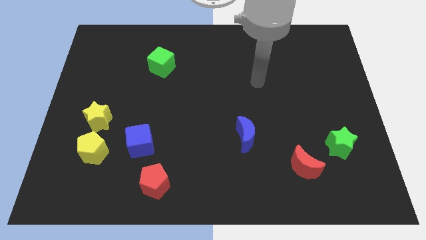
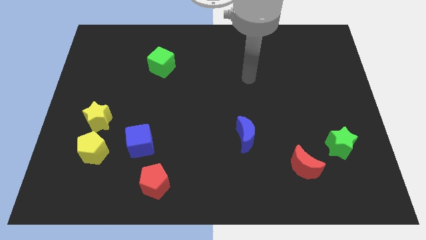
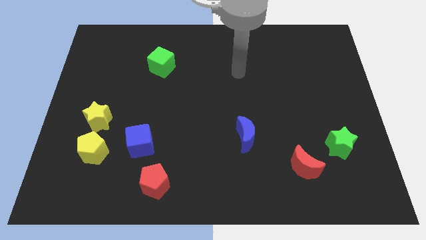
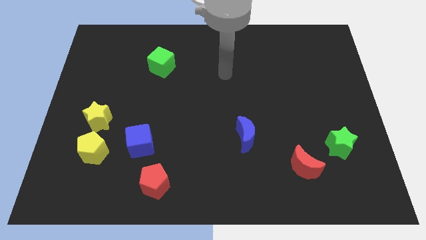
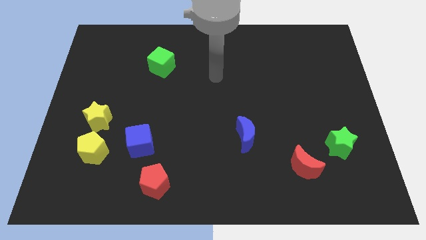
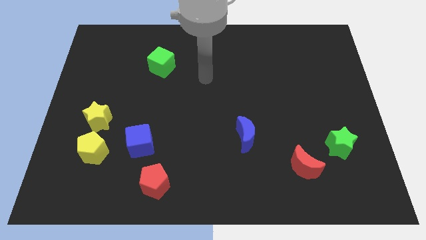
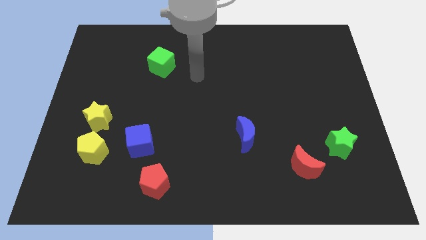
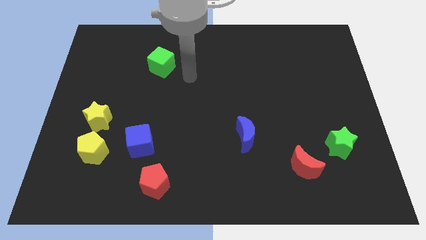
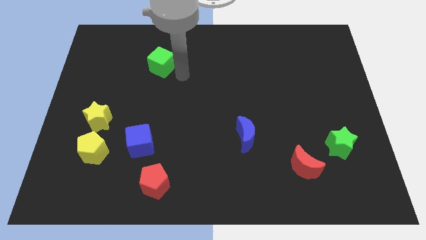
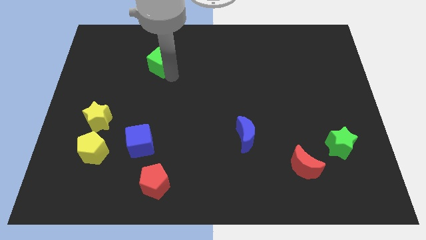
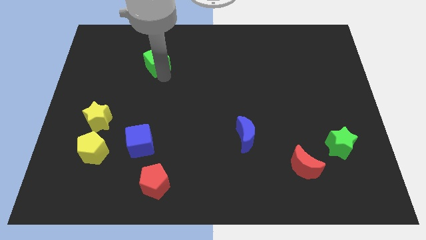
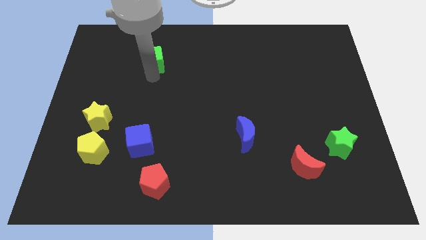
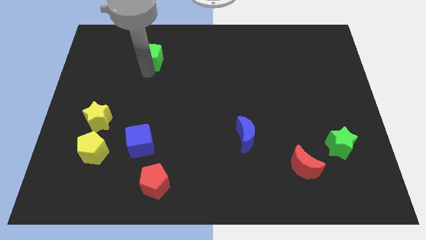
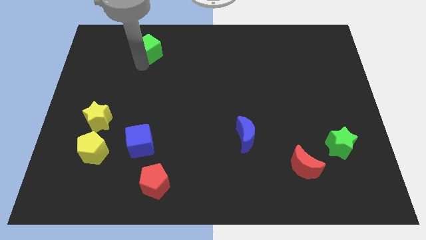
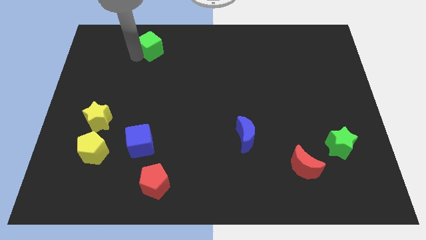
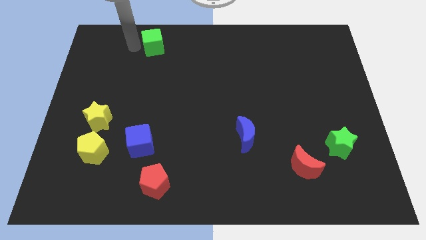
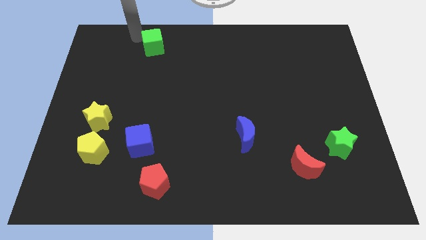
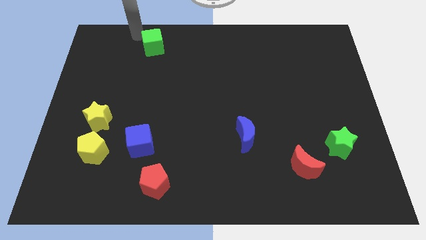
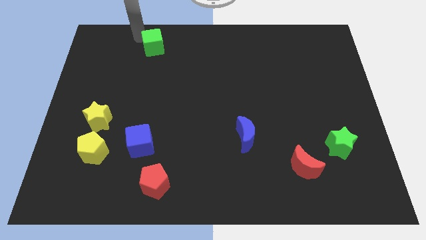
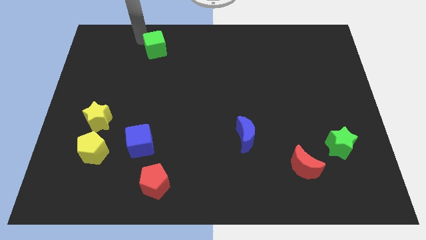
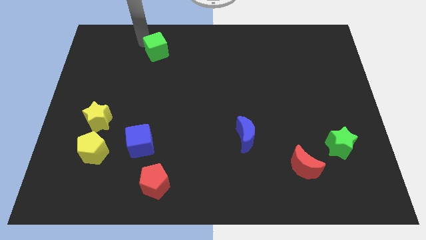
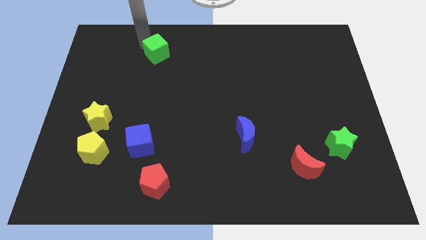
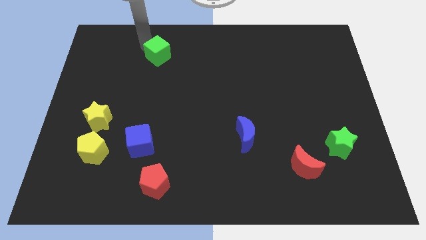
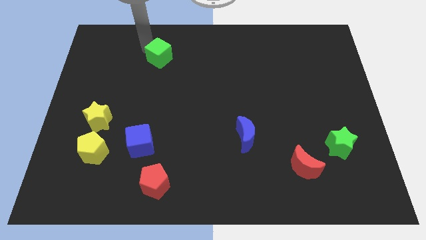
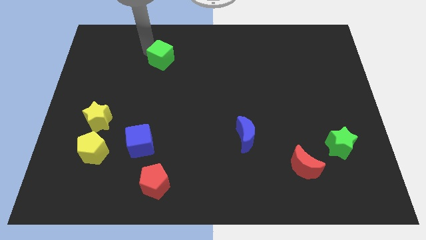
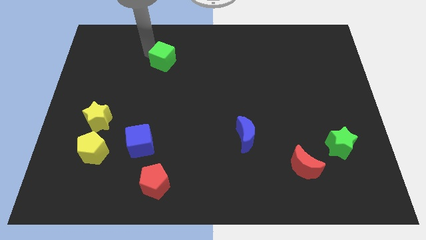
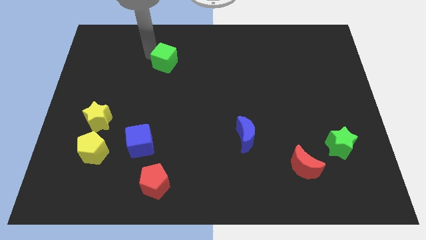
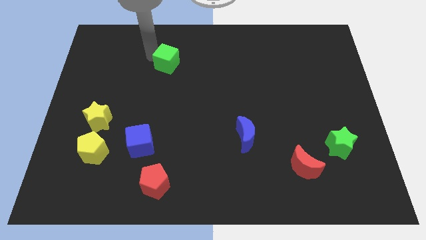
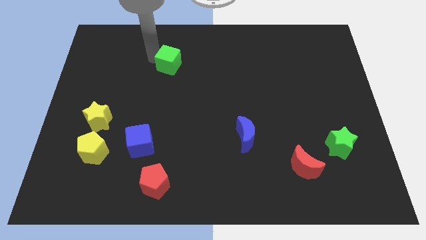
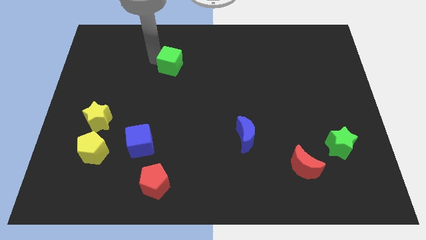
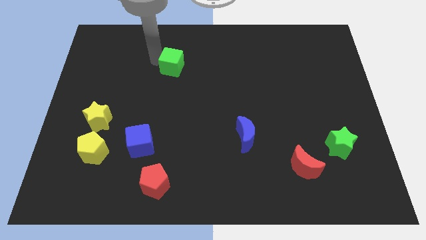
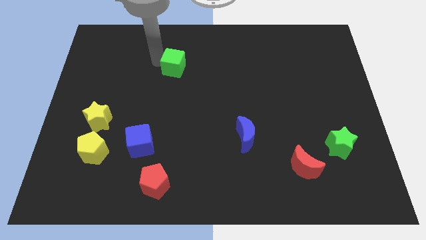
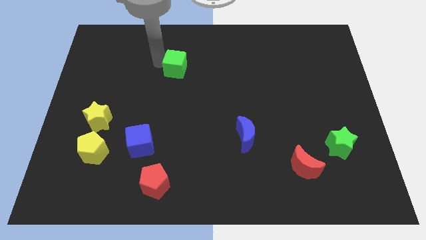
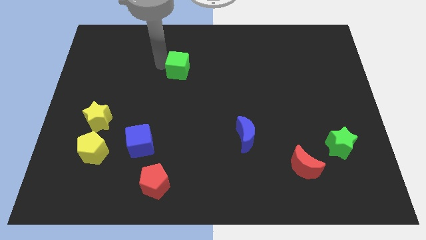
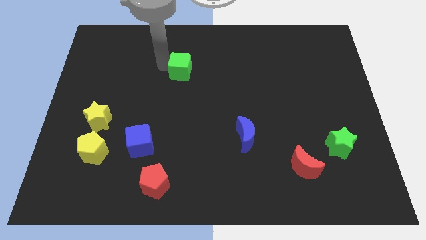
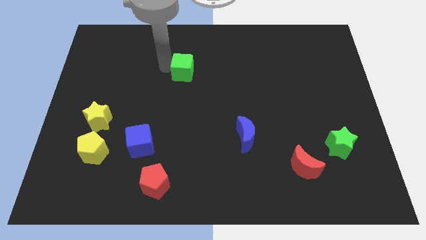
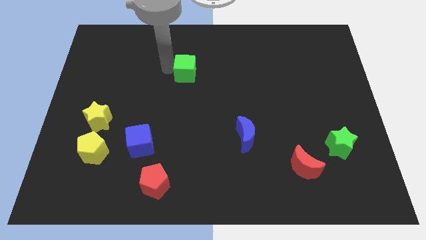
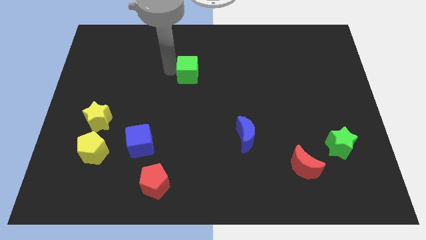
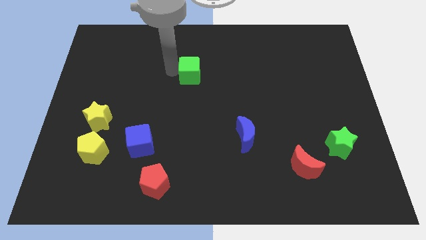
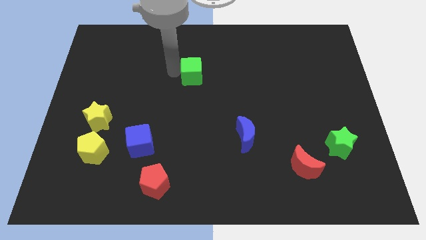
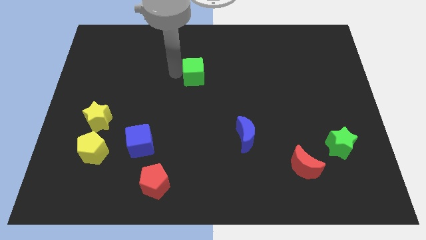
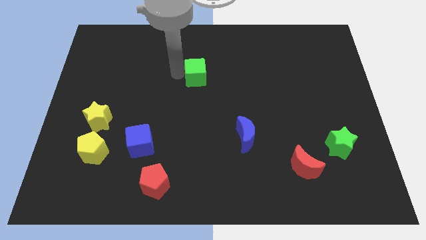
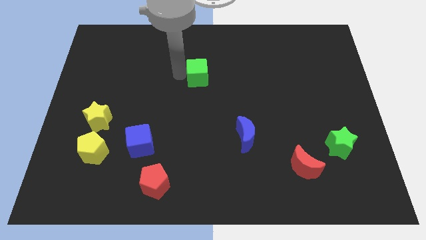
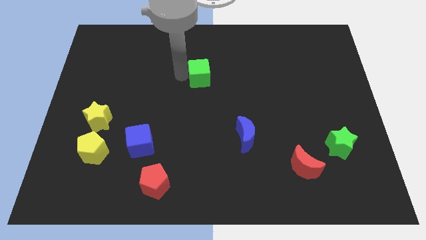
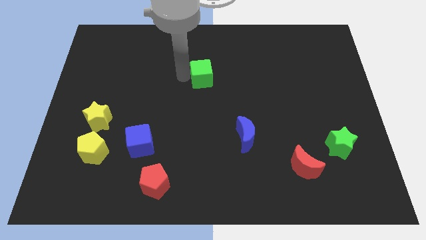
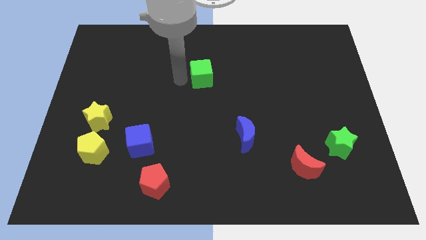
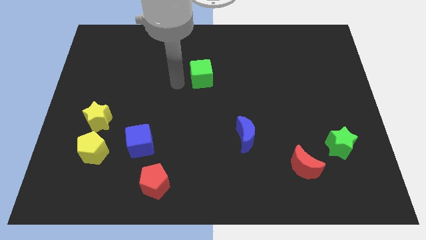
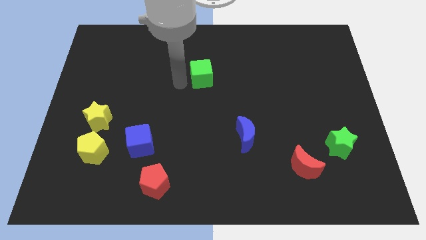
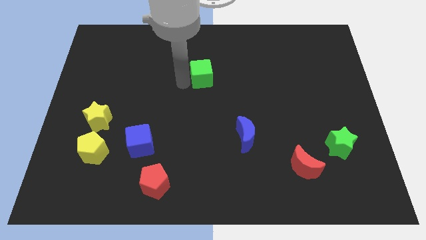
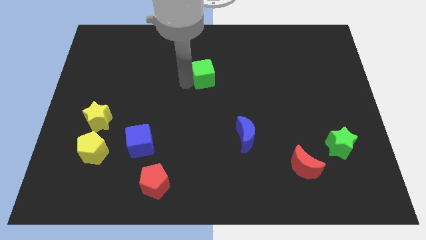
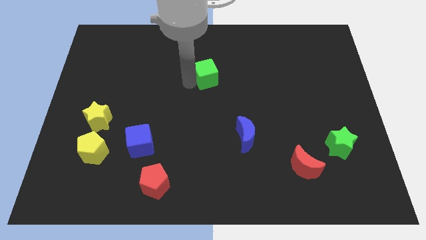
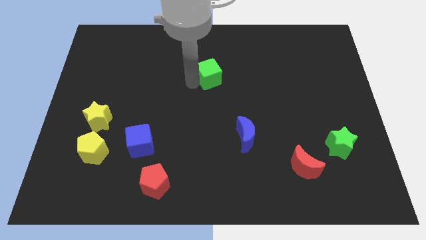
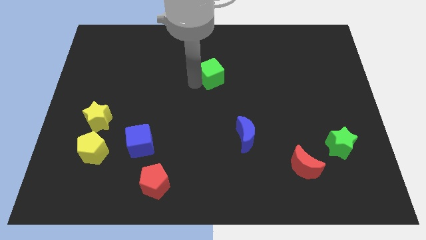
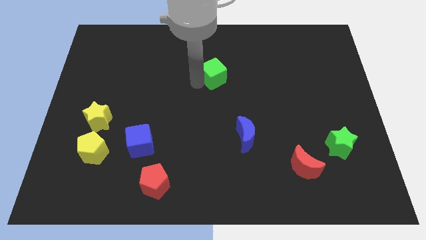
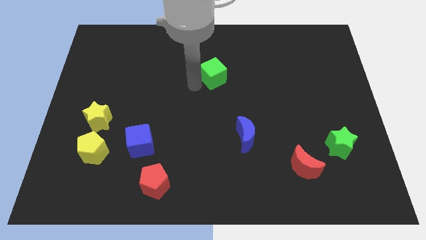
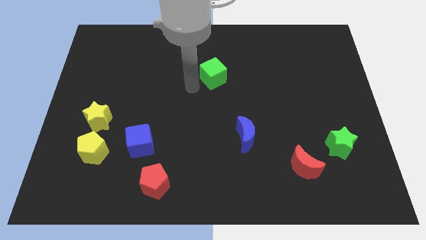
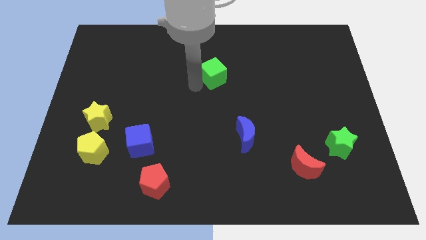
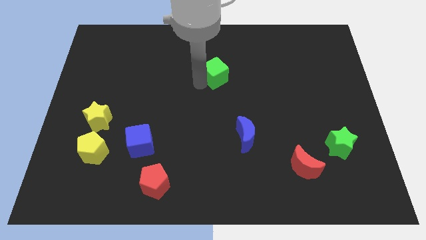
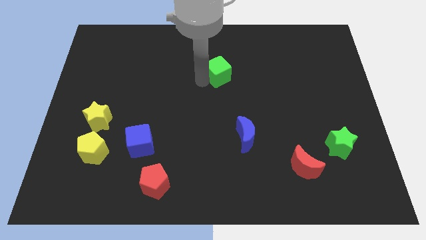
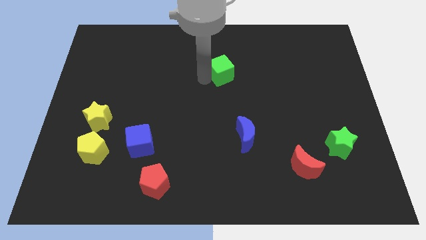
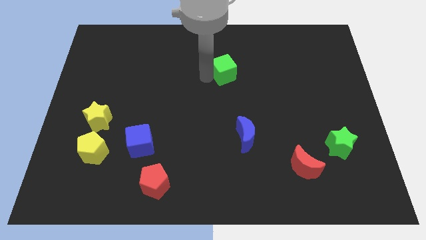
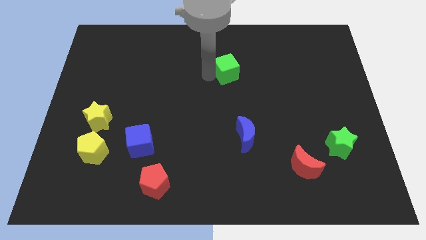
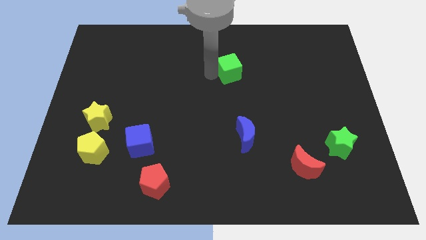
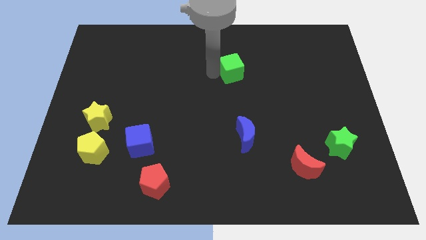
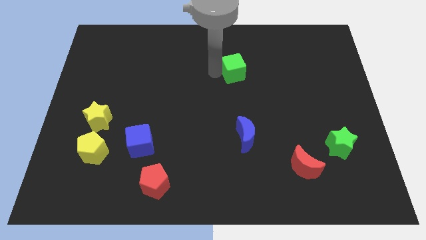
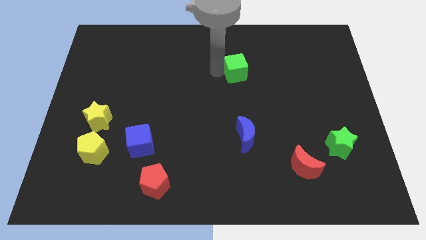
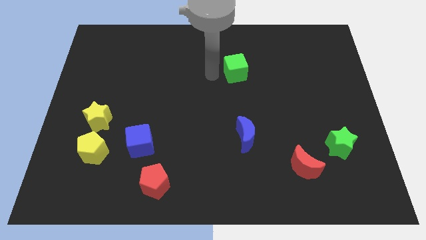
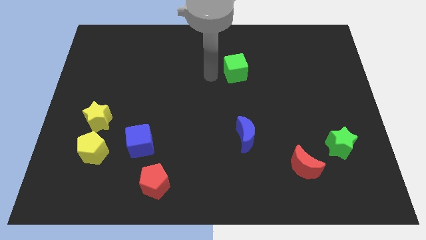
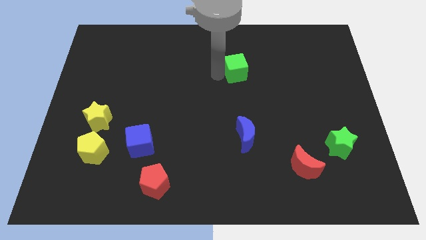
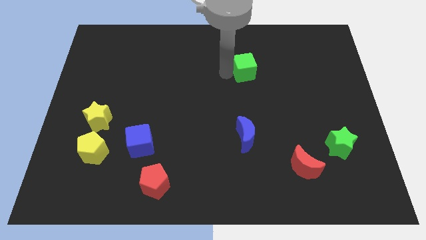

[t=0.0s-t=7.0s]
move the green cube right

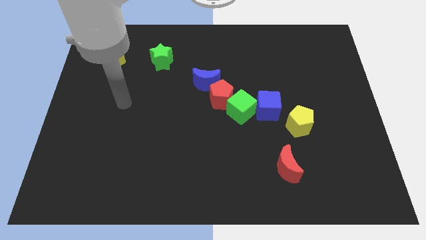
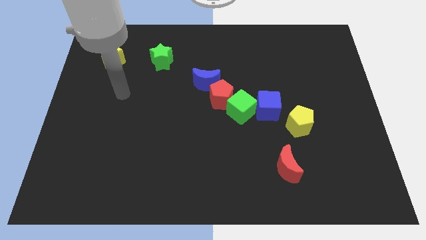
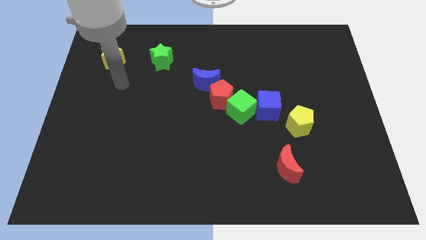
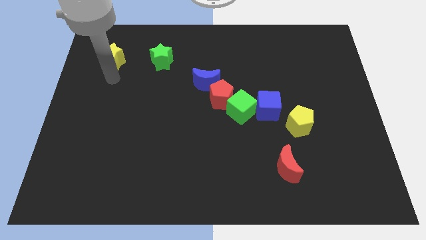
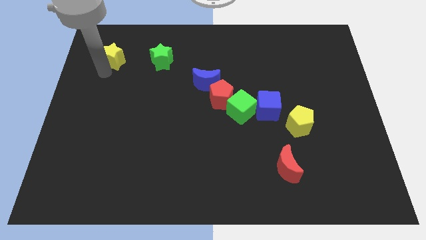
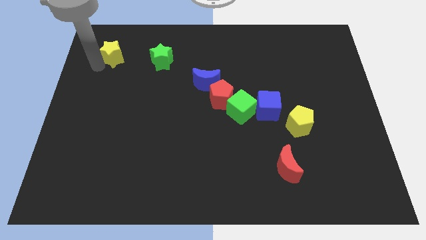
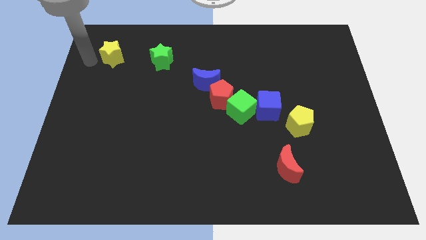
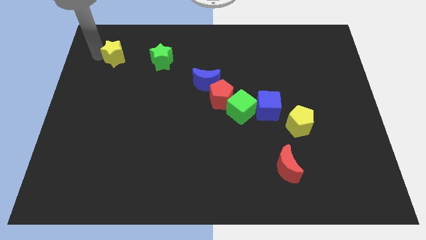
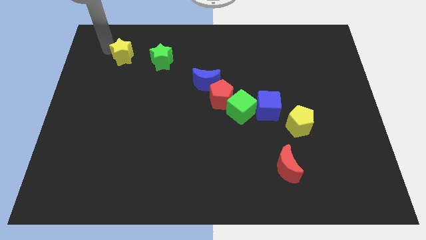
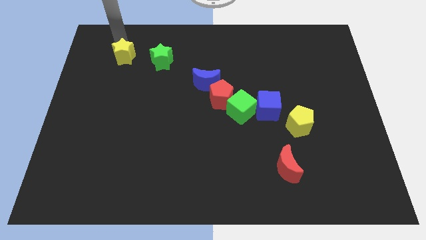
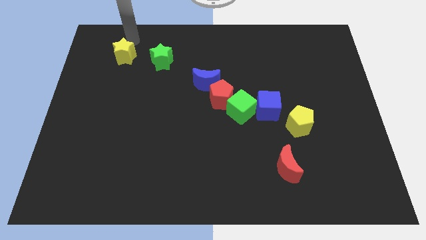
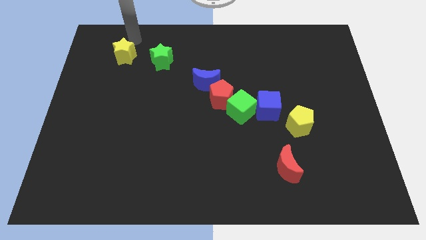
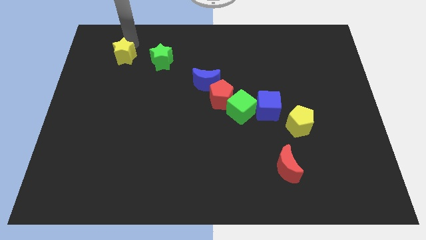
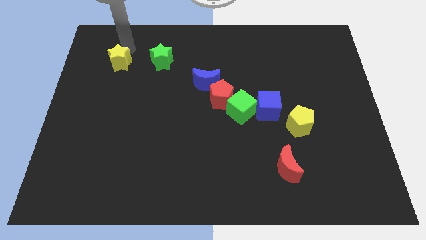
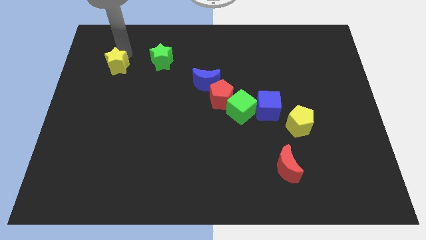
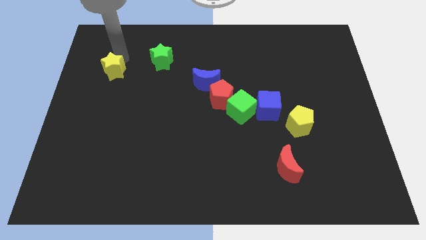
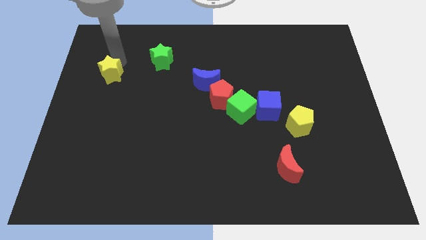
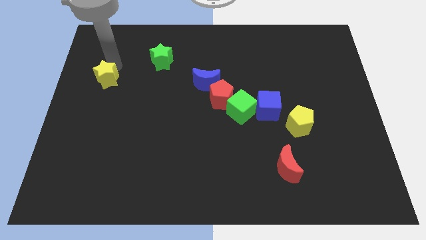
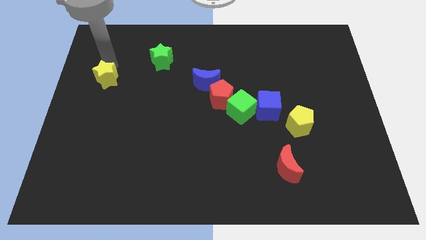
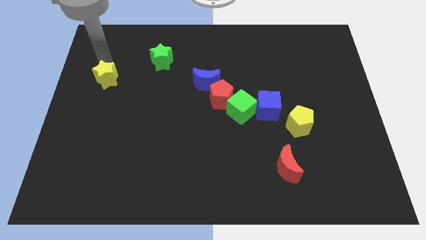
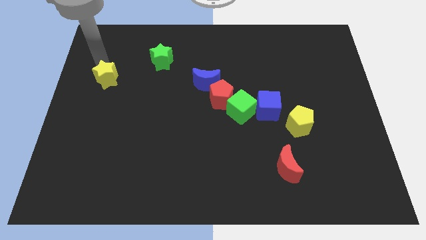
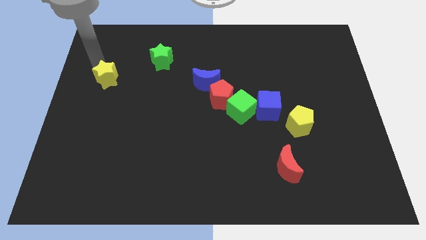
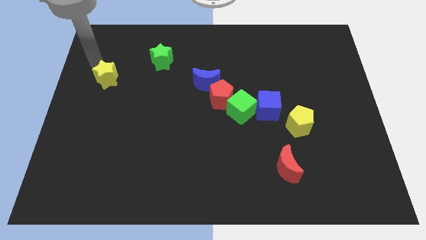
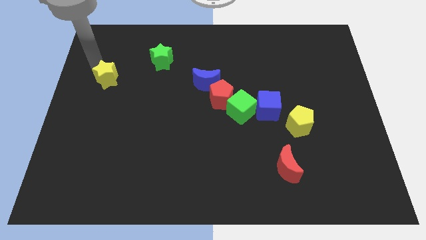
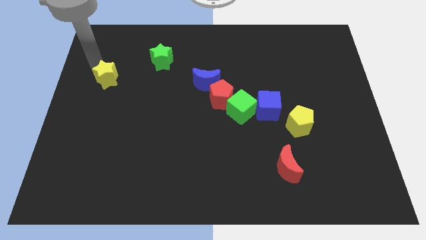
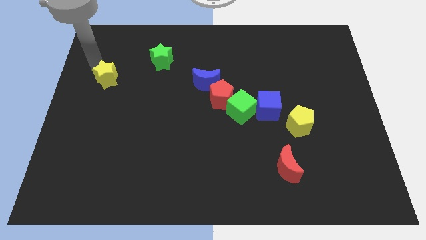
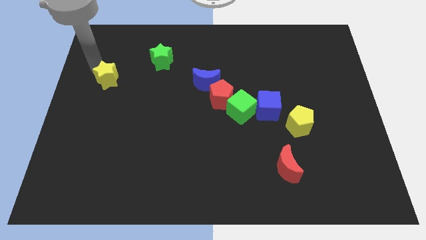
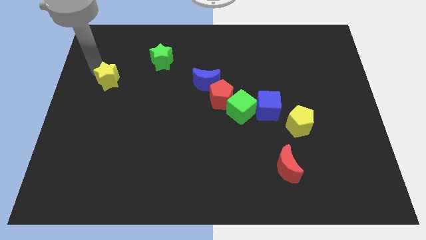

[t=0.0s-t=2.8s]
move the yellow star a little bit downwards
